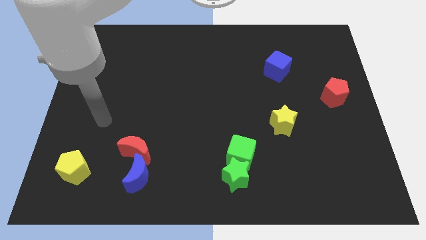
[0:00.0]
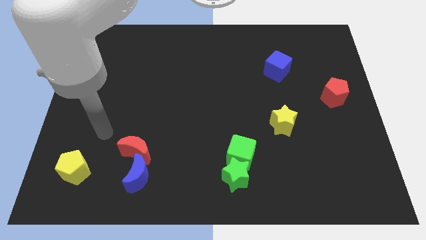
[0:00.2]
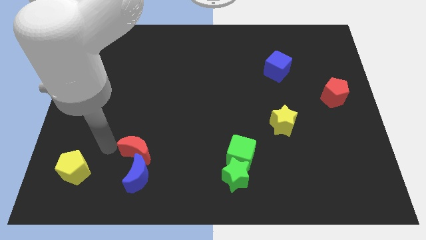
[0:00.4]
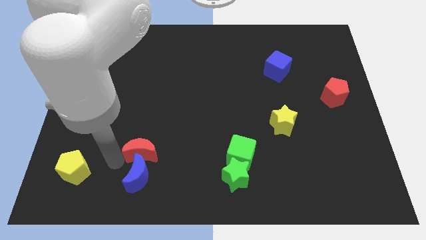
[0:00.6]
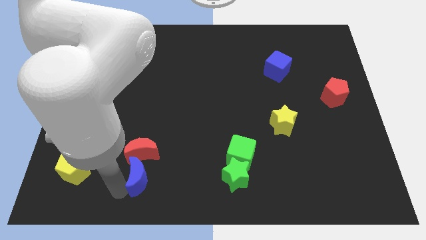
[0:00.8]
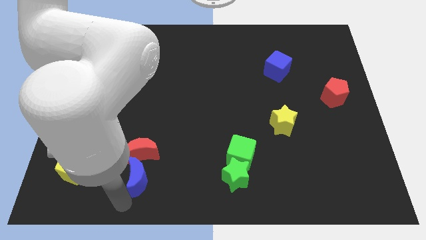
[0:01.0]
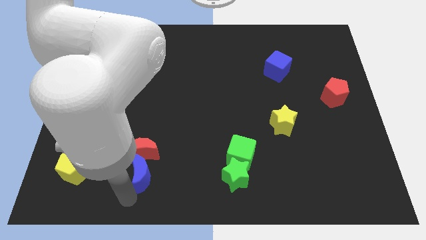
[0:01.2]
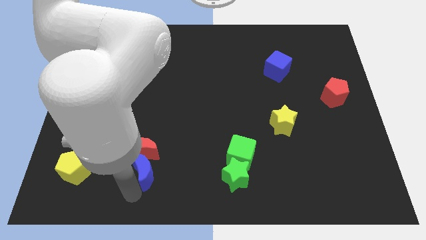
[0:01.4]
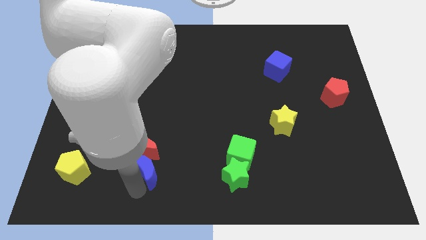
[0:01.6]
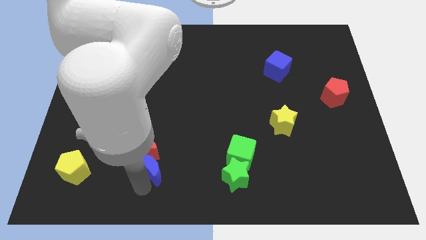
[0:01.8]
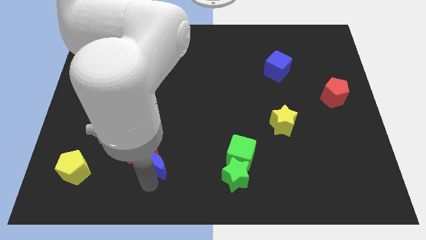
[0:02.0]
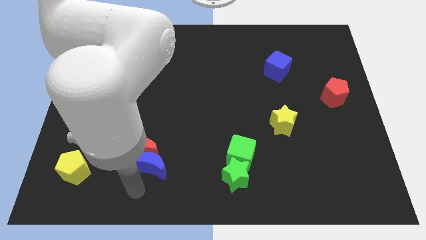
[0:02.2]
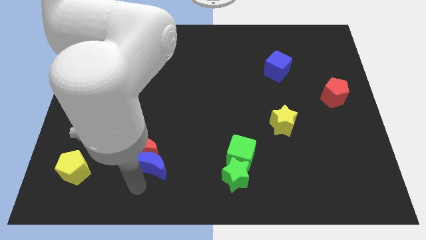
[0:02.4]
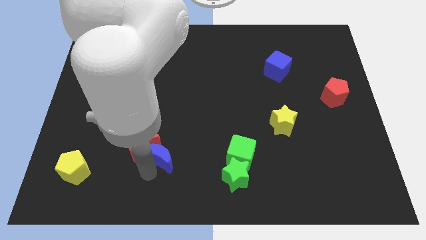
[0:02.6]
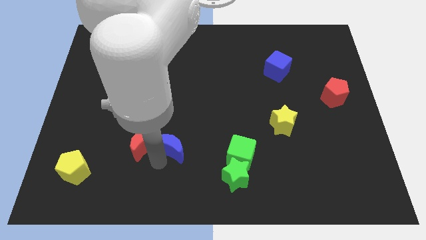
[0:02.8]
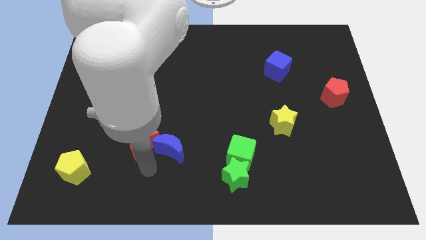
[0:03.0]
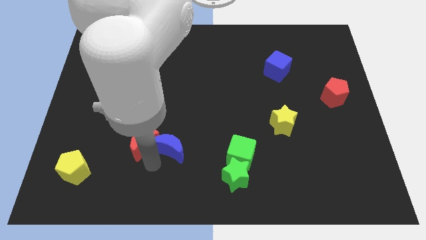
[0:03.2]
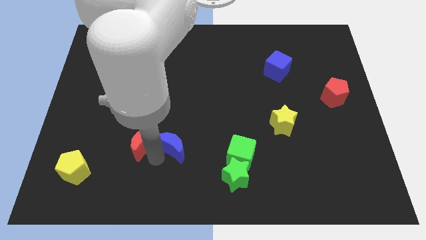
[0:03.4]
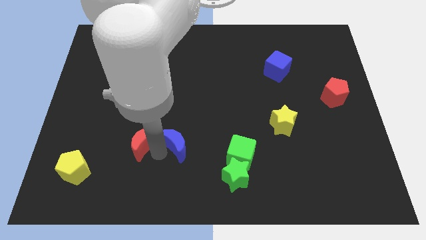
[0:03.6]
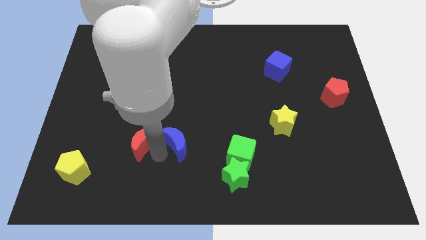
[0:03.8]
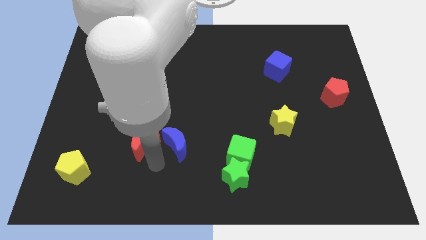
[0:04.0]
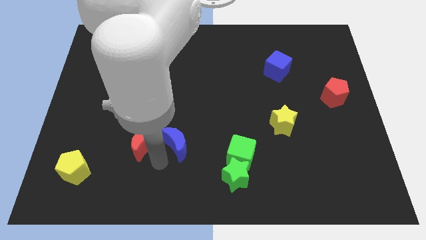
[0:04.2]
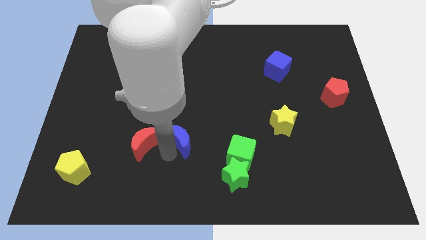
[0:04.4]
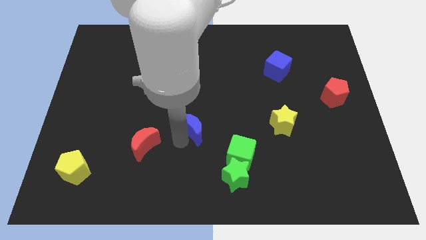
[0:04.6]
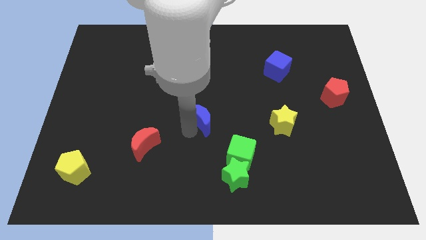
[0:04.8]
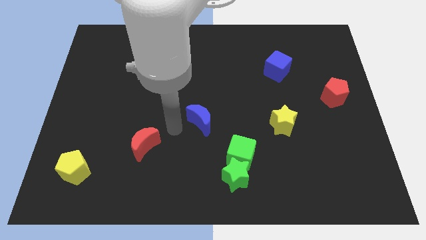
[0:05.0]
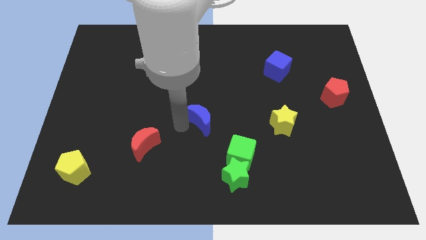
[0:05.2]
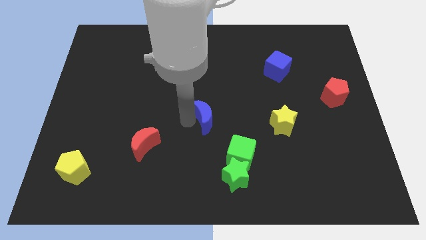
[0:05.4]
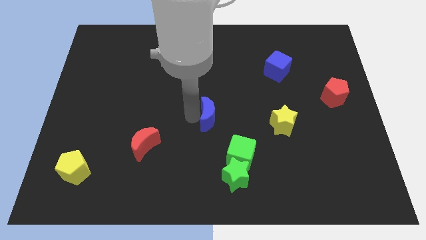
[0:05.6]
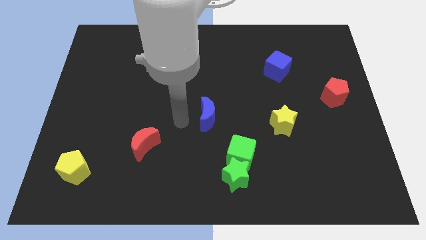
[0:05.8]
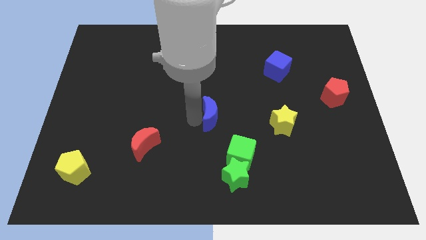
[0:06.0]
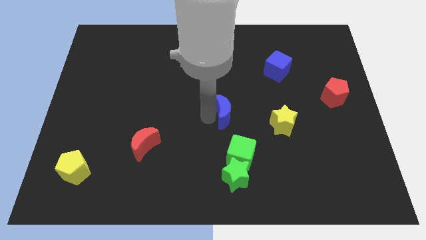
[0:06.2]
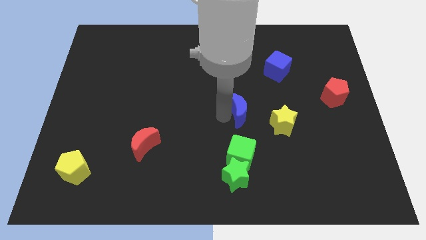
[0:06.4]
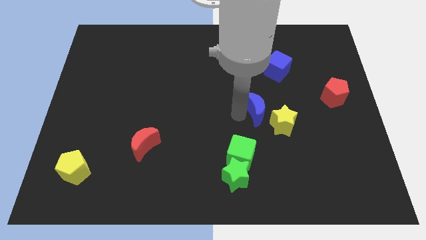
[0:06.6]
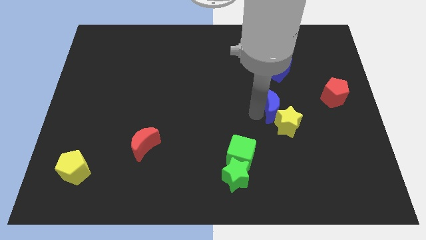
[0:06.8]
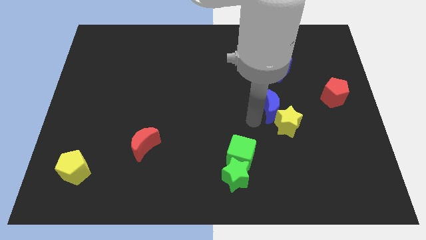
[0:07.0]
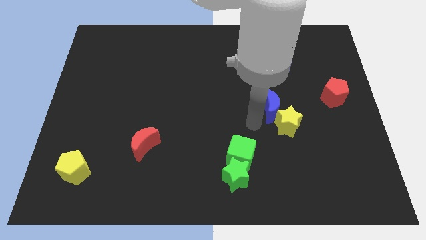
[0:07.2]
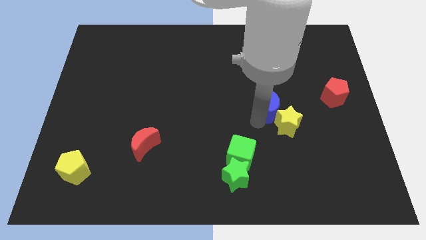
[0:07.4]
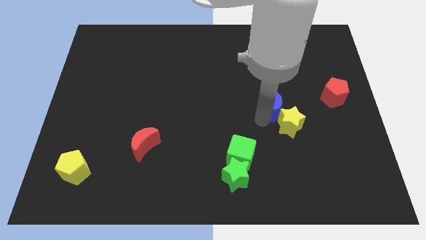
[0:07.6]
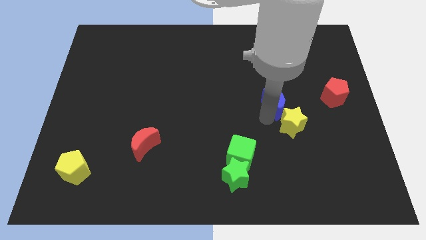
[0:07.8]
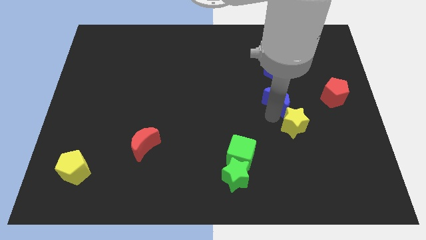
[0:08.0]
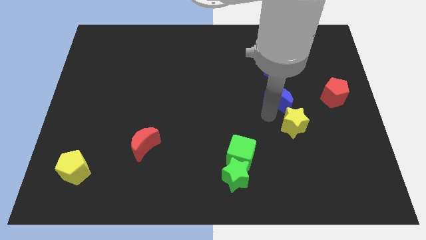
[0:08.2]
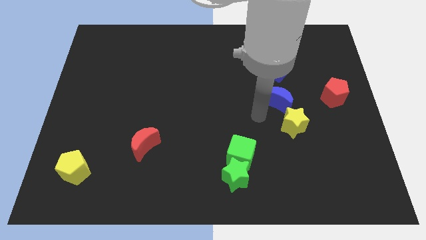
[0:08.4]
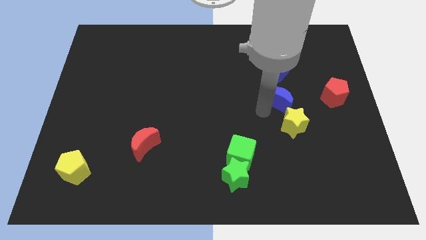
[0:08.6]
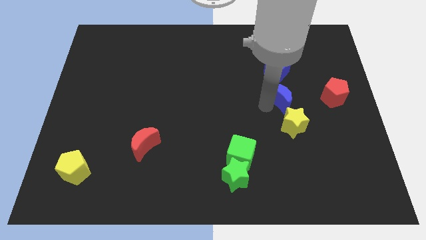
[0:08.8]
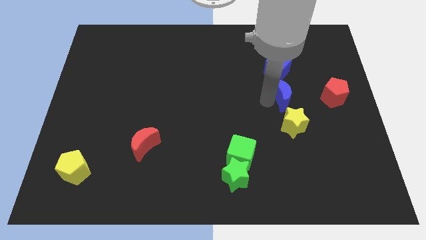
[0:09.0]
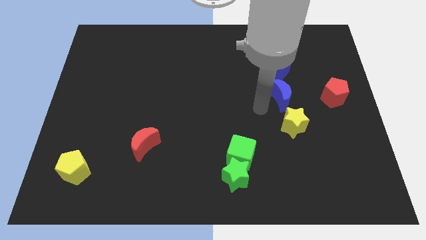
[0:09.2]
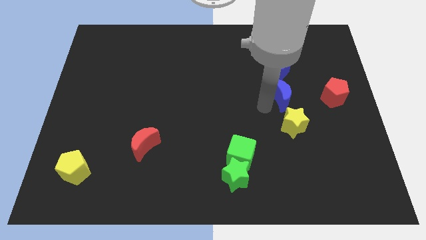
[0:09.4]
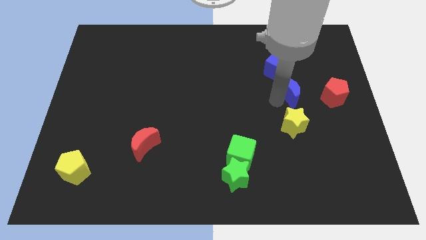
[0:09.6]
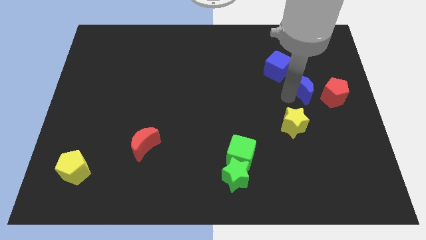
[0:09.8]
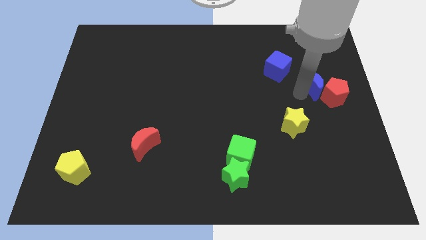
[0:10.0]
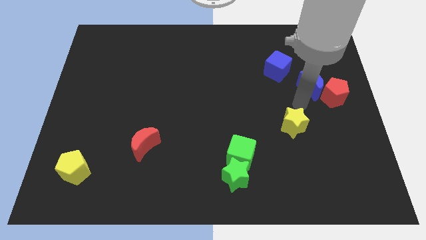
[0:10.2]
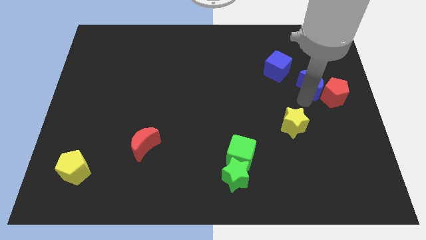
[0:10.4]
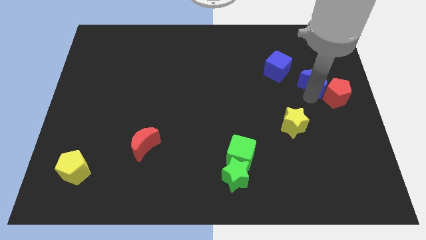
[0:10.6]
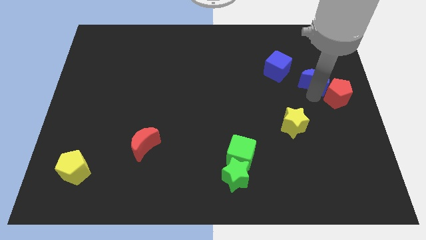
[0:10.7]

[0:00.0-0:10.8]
push the blue moon above the red pentagon
